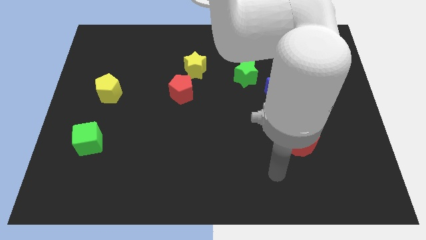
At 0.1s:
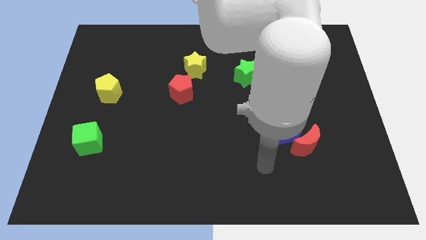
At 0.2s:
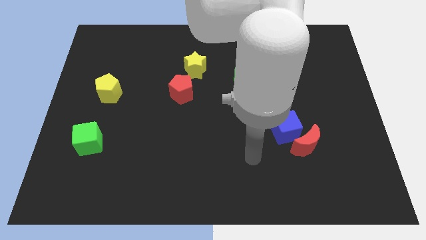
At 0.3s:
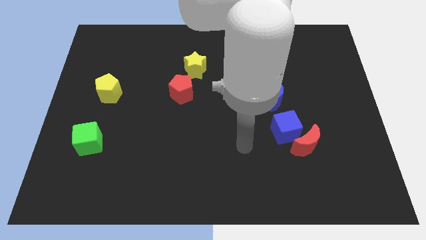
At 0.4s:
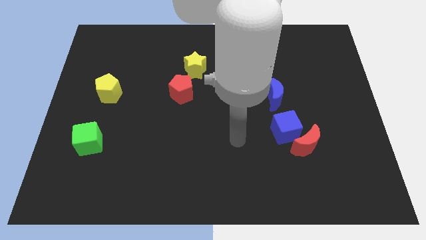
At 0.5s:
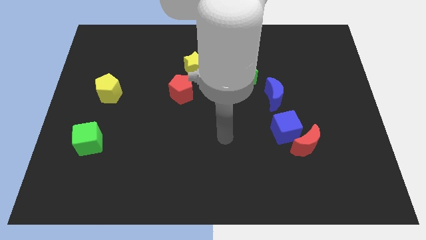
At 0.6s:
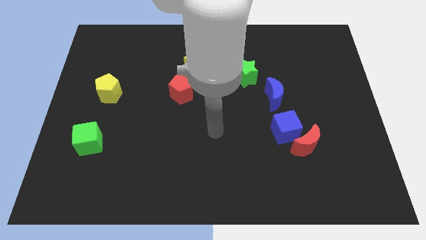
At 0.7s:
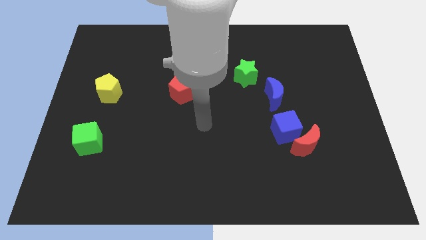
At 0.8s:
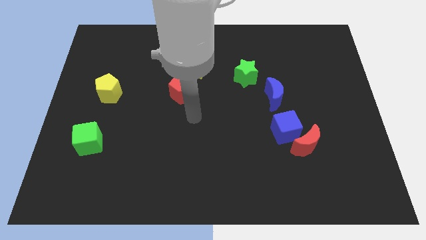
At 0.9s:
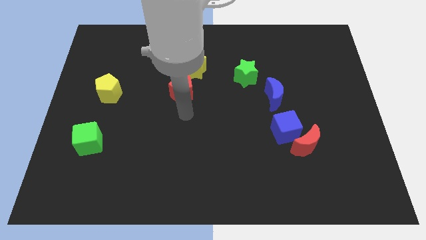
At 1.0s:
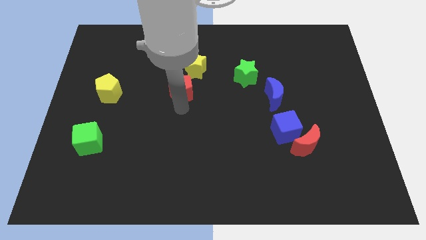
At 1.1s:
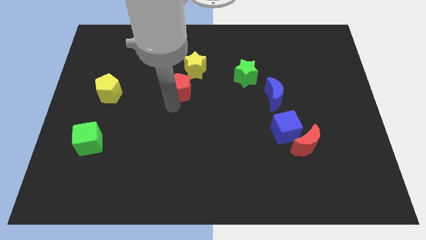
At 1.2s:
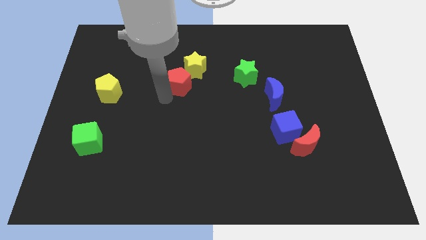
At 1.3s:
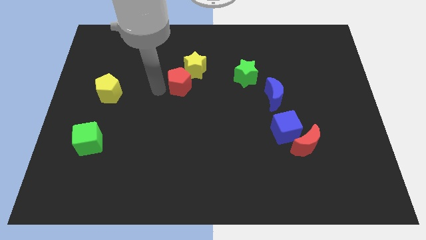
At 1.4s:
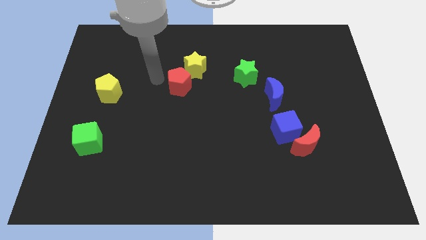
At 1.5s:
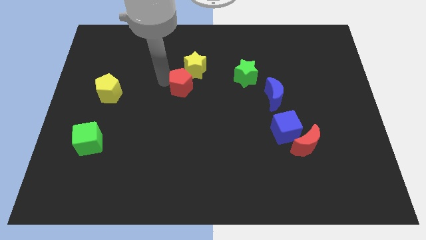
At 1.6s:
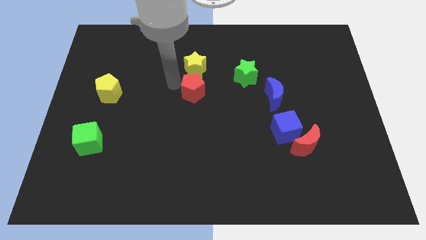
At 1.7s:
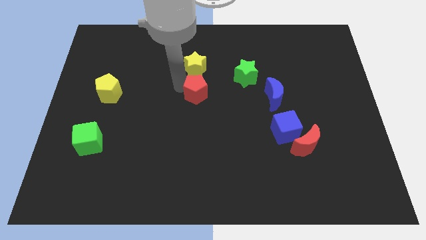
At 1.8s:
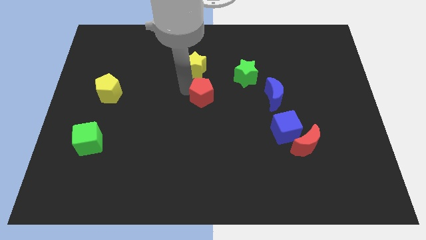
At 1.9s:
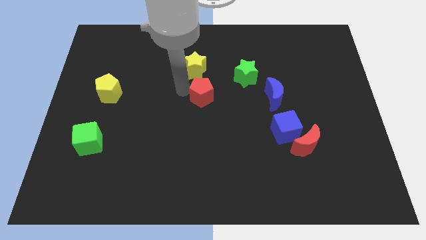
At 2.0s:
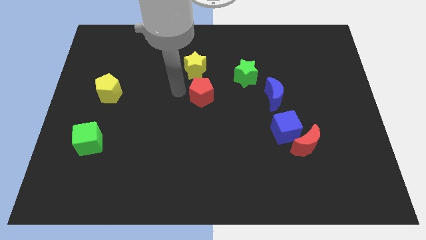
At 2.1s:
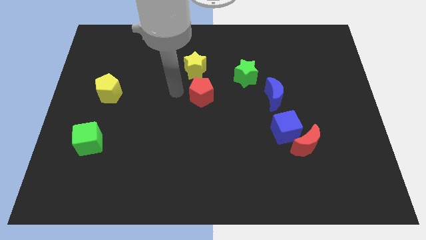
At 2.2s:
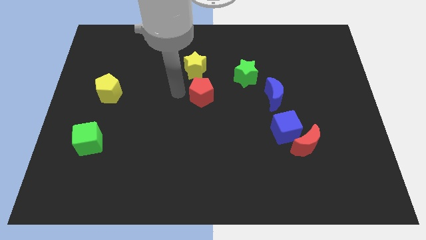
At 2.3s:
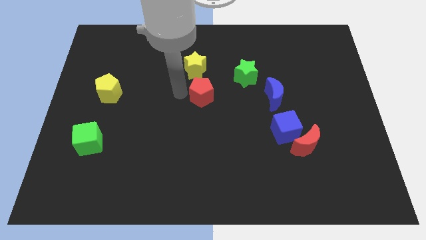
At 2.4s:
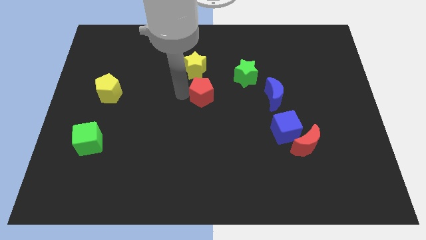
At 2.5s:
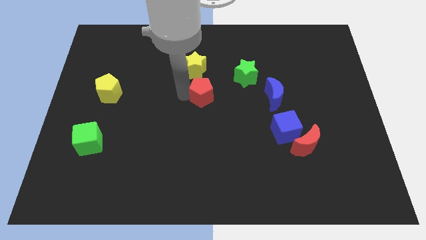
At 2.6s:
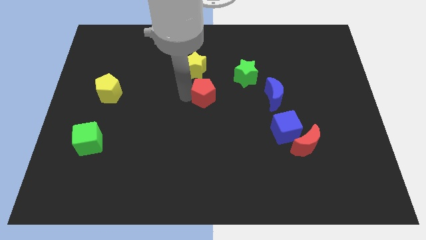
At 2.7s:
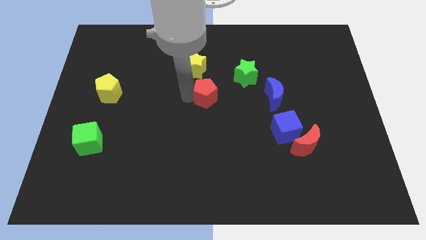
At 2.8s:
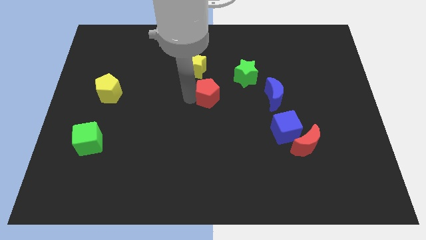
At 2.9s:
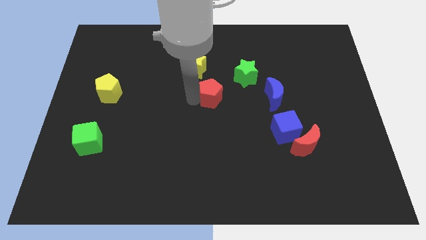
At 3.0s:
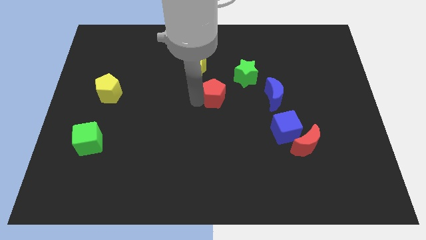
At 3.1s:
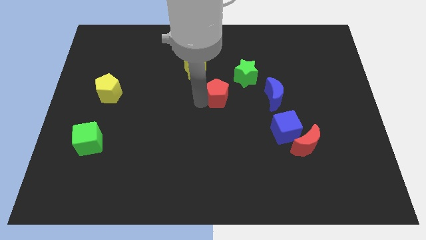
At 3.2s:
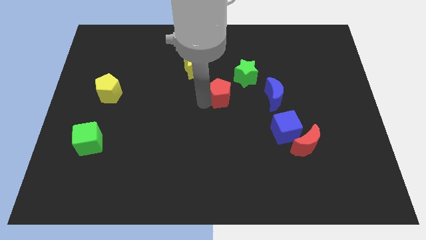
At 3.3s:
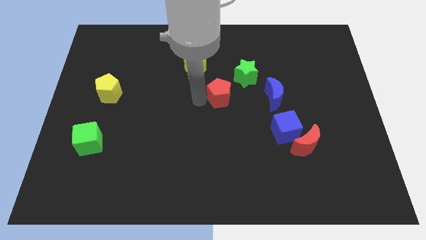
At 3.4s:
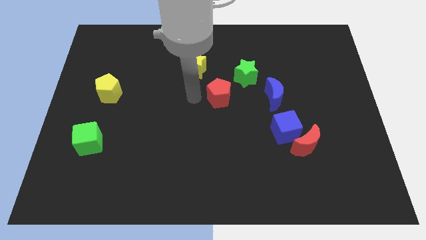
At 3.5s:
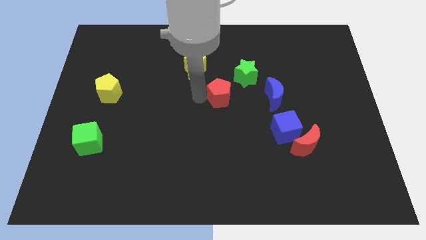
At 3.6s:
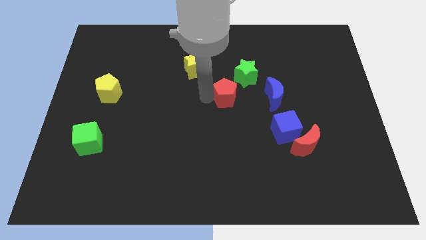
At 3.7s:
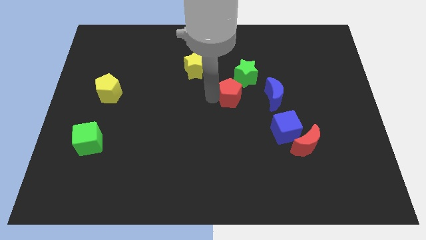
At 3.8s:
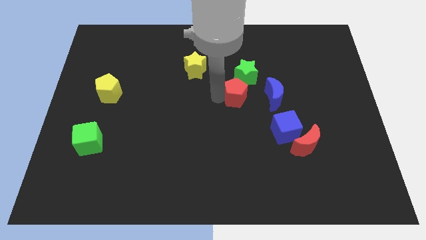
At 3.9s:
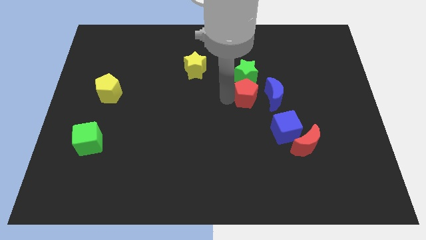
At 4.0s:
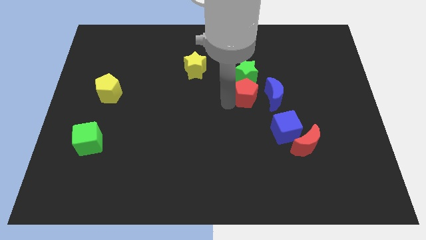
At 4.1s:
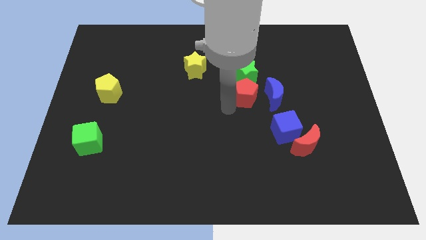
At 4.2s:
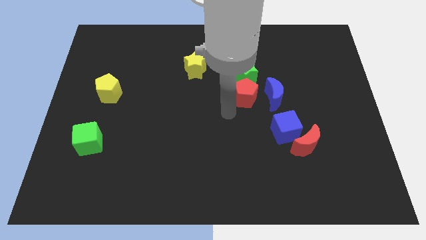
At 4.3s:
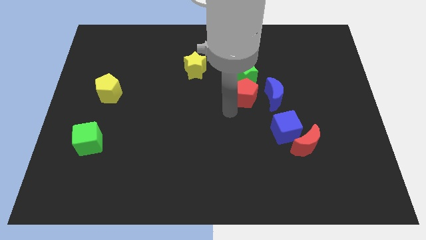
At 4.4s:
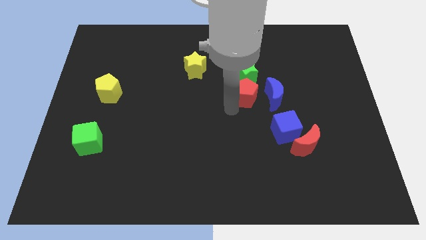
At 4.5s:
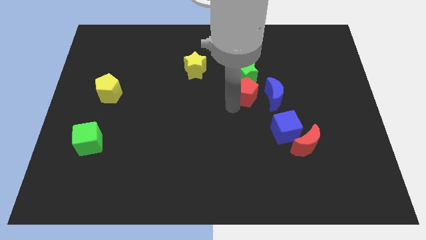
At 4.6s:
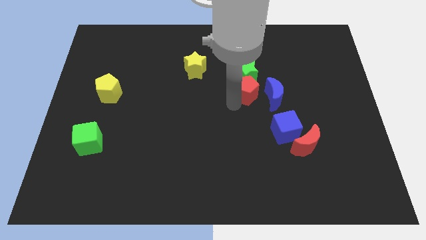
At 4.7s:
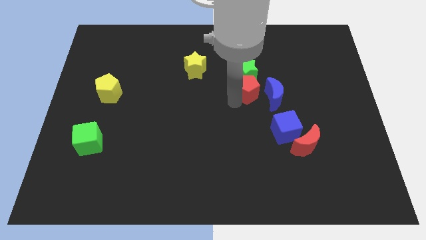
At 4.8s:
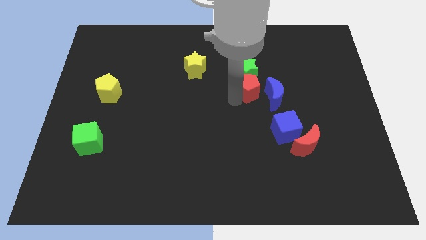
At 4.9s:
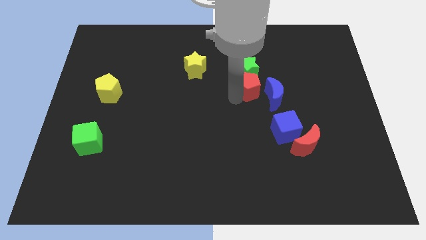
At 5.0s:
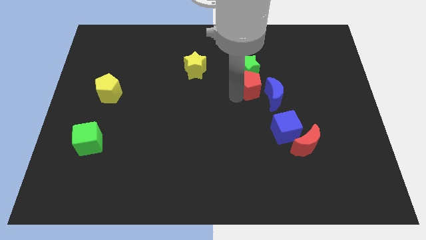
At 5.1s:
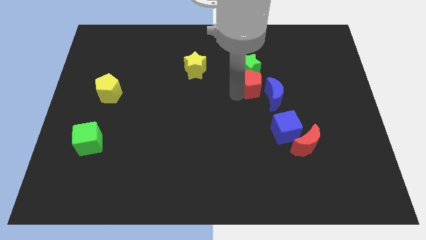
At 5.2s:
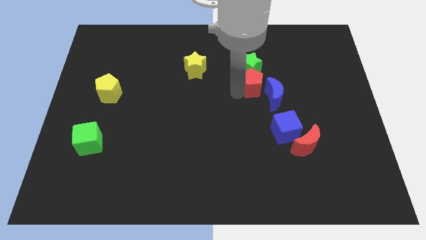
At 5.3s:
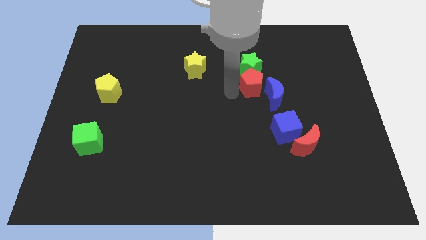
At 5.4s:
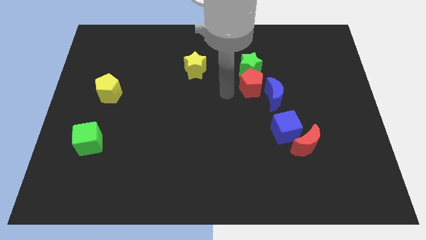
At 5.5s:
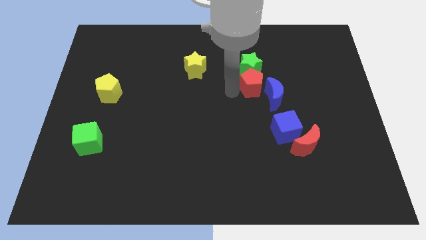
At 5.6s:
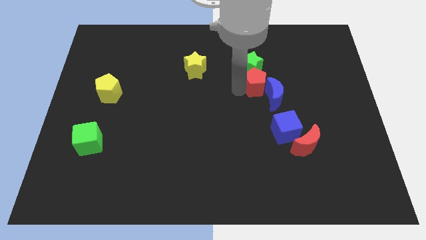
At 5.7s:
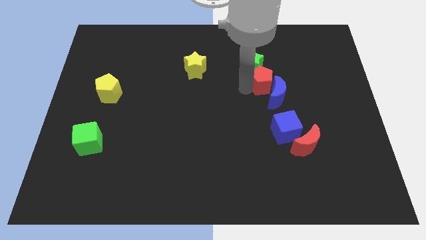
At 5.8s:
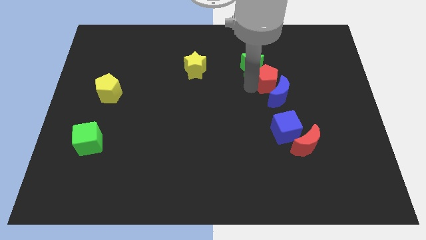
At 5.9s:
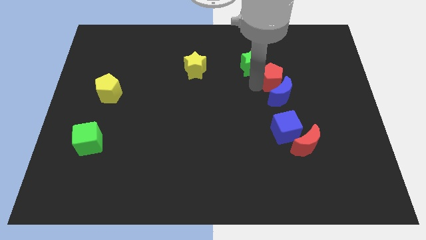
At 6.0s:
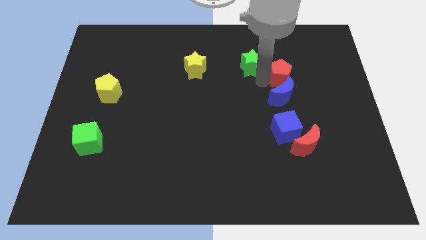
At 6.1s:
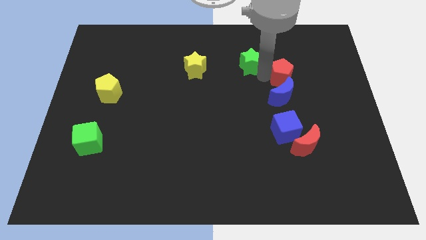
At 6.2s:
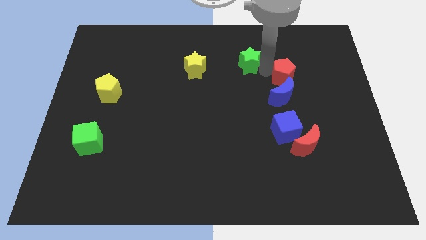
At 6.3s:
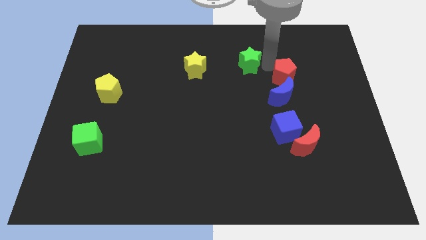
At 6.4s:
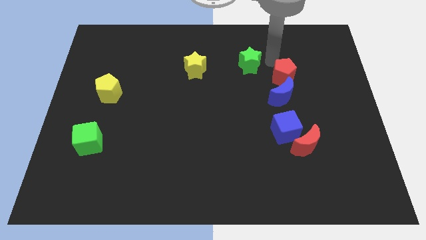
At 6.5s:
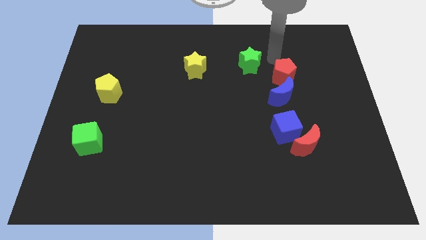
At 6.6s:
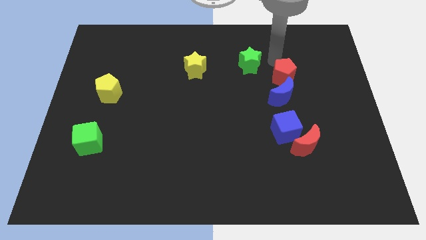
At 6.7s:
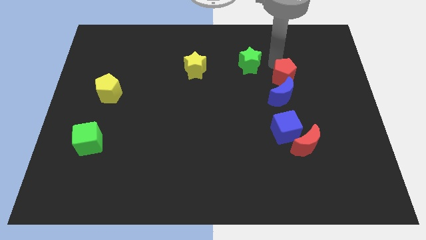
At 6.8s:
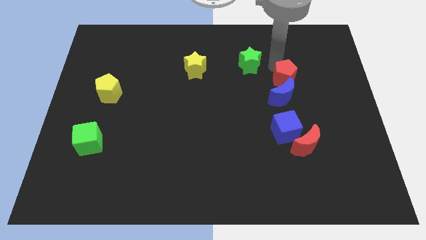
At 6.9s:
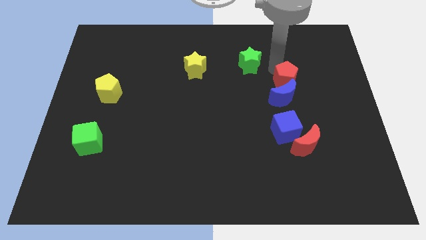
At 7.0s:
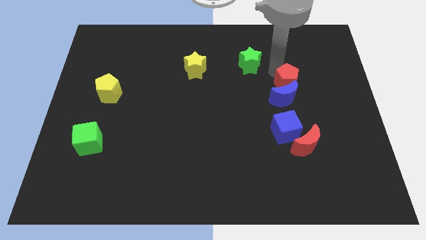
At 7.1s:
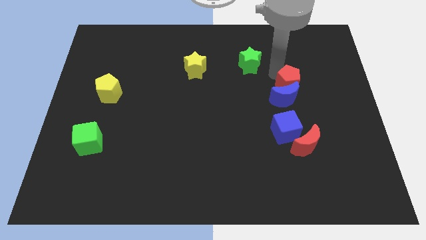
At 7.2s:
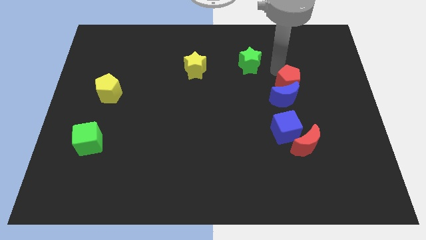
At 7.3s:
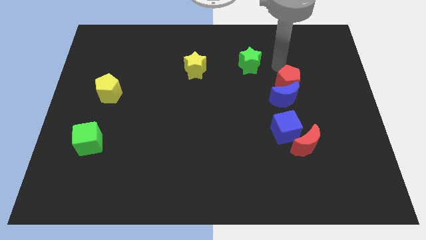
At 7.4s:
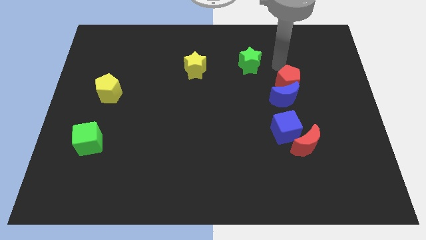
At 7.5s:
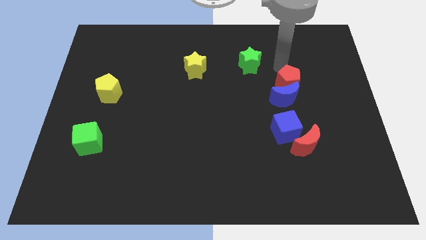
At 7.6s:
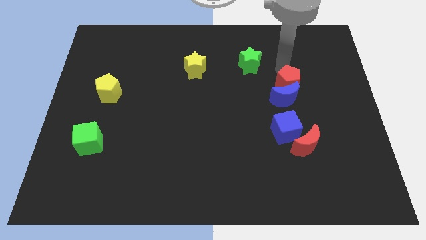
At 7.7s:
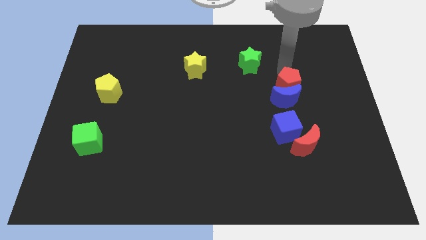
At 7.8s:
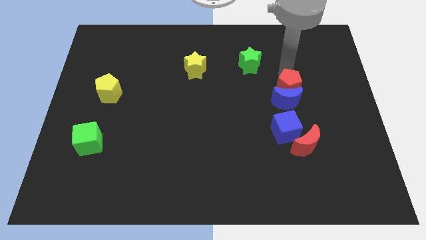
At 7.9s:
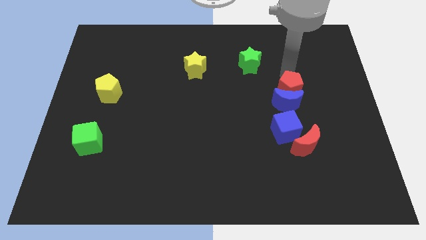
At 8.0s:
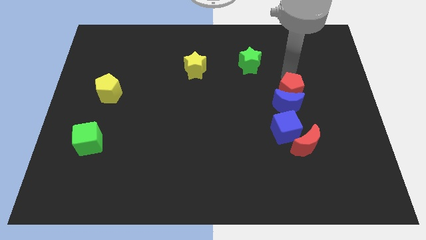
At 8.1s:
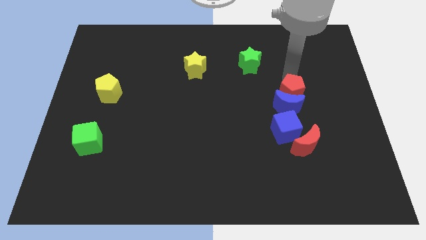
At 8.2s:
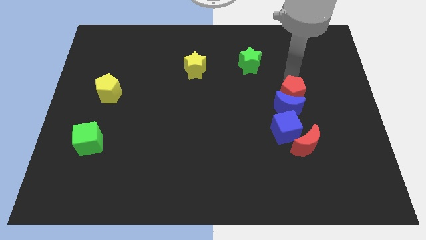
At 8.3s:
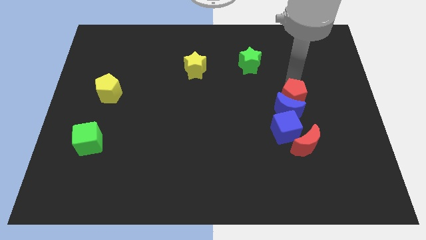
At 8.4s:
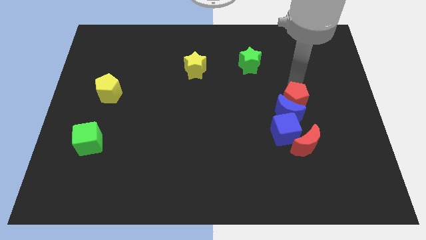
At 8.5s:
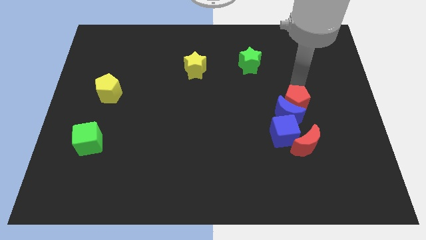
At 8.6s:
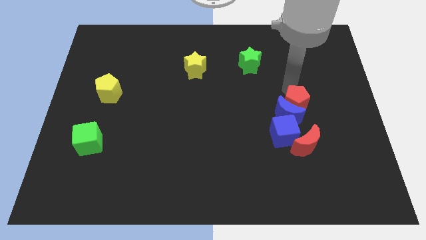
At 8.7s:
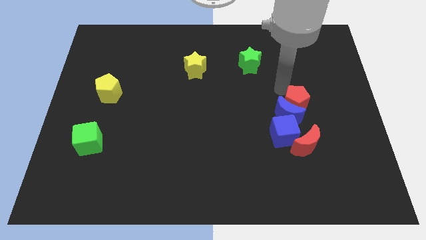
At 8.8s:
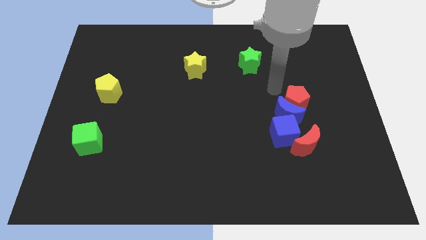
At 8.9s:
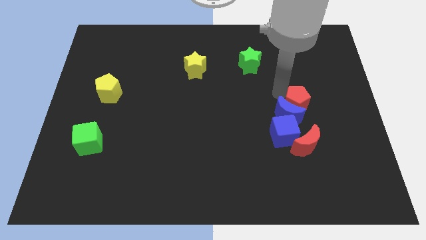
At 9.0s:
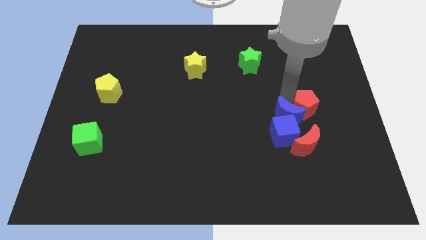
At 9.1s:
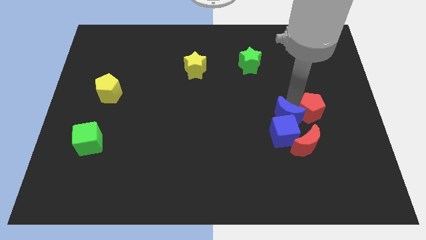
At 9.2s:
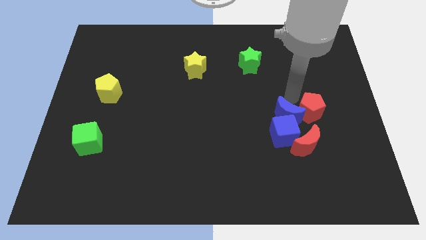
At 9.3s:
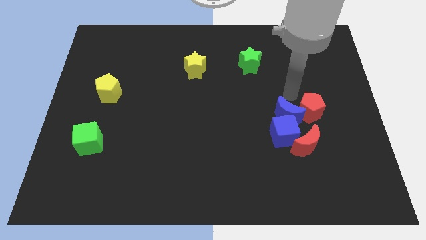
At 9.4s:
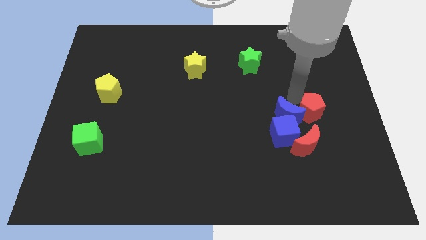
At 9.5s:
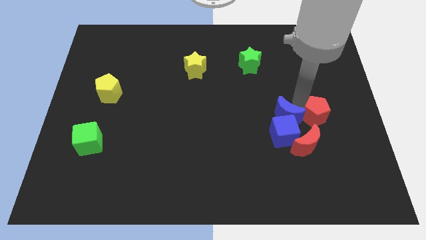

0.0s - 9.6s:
push the red pentagon to the top right of the red moon
